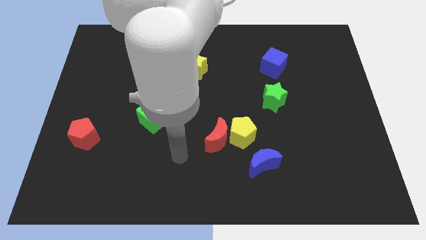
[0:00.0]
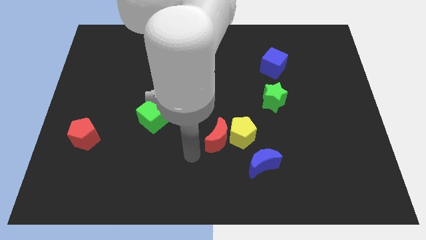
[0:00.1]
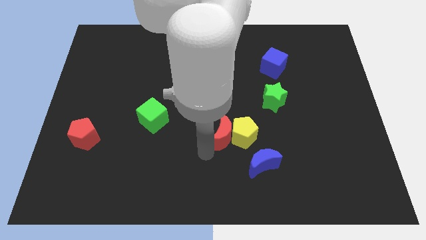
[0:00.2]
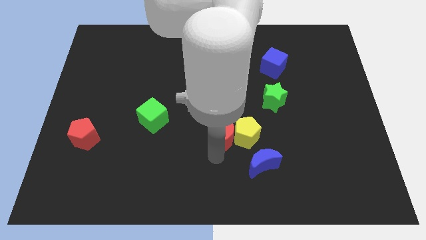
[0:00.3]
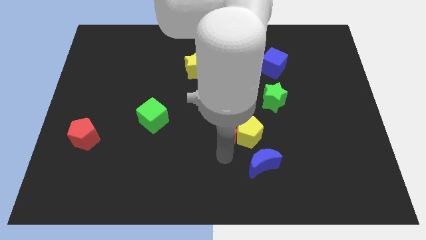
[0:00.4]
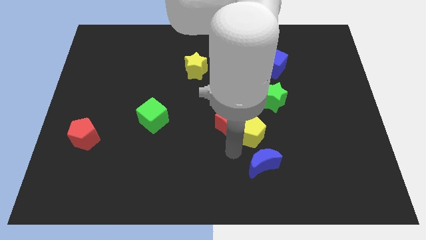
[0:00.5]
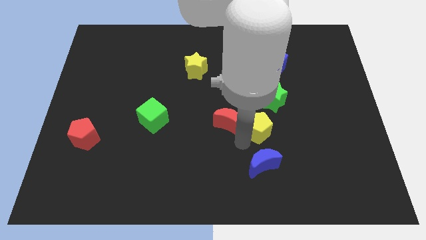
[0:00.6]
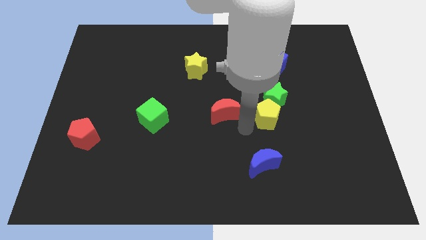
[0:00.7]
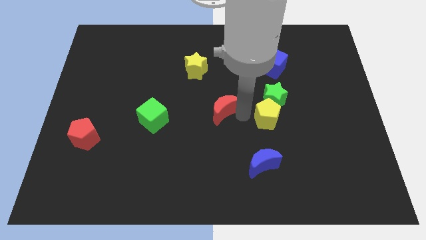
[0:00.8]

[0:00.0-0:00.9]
separate the red moon from the yellow pentagon

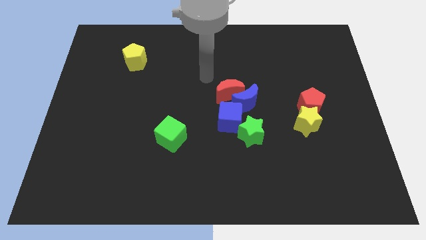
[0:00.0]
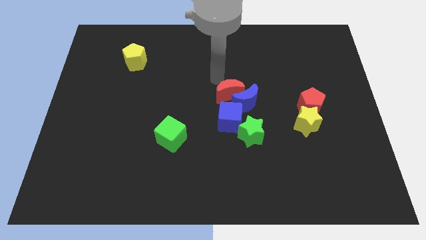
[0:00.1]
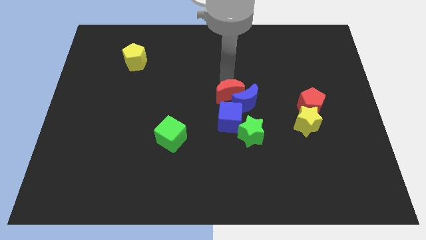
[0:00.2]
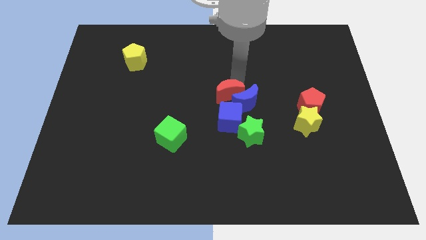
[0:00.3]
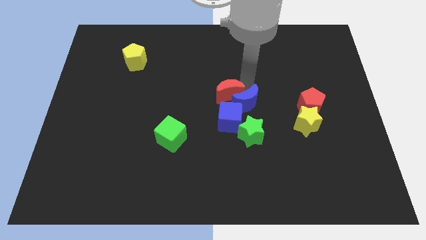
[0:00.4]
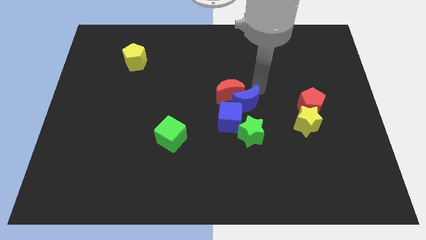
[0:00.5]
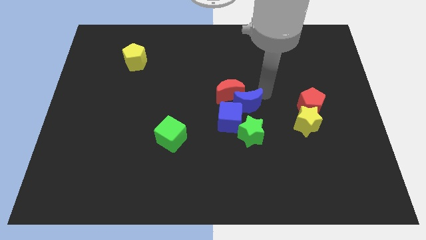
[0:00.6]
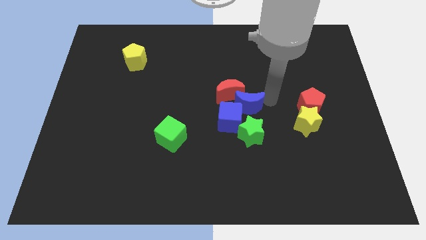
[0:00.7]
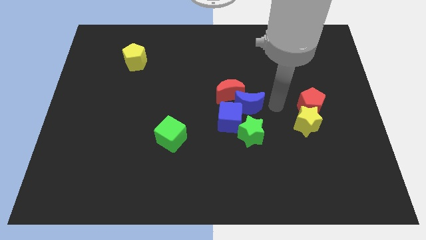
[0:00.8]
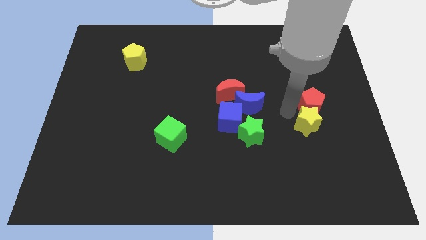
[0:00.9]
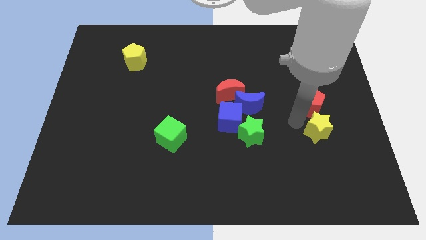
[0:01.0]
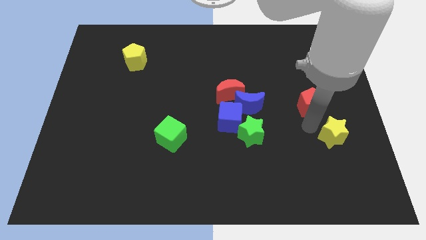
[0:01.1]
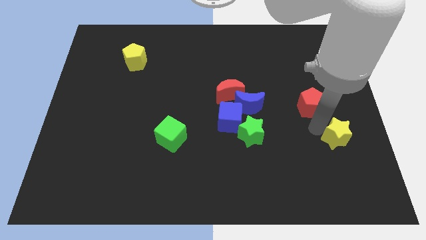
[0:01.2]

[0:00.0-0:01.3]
separate the red pentagon from the yellow star

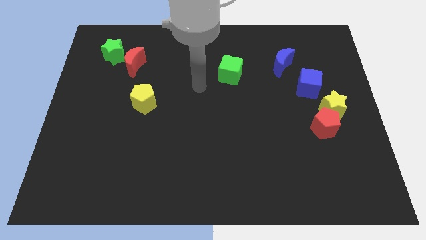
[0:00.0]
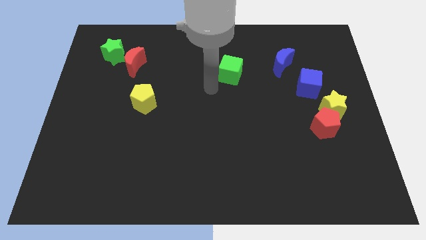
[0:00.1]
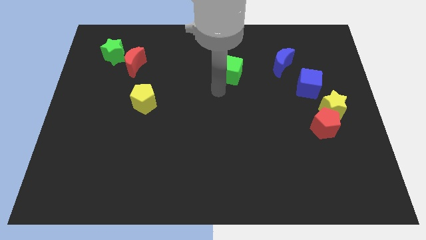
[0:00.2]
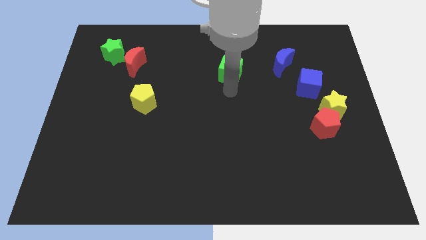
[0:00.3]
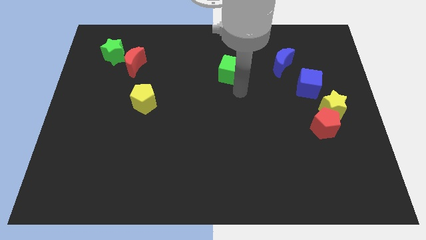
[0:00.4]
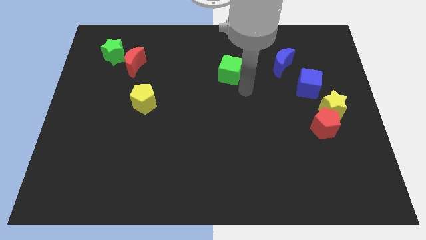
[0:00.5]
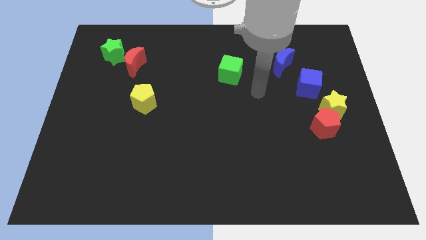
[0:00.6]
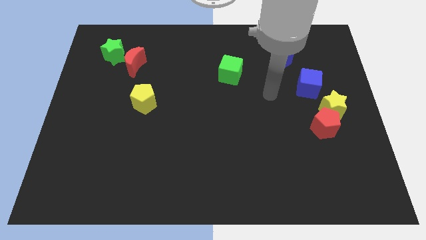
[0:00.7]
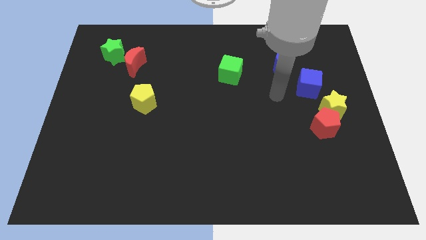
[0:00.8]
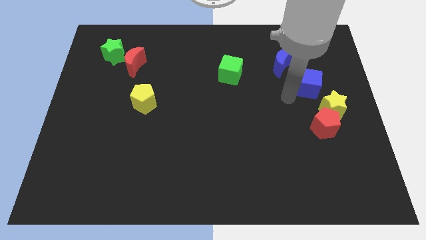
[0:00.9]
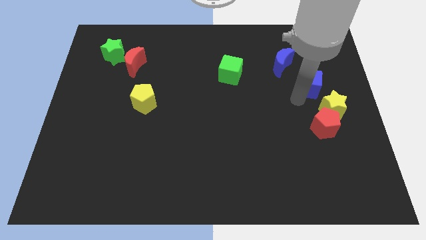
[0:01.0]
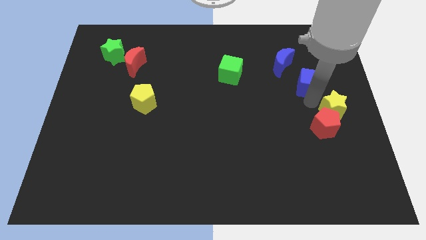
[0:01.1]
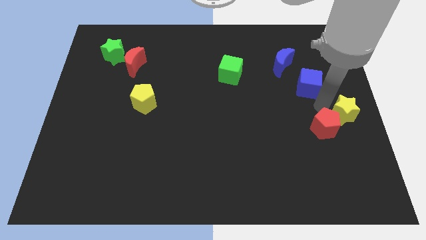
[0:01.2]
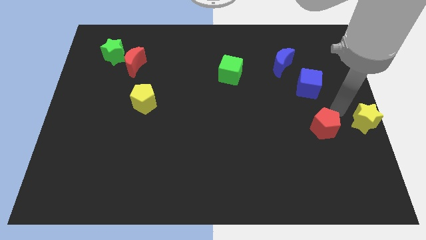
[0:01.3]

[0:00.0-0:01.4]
pull the red pentagon apart from the yellow star

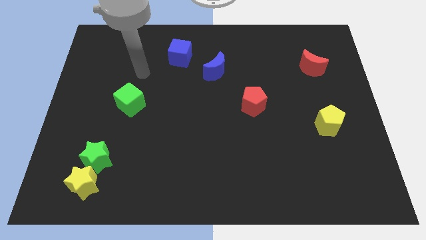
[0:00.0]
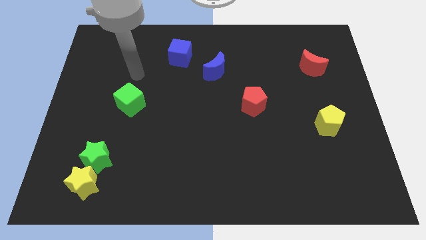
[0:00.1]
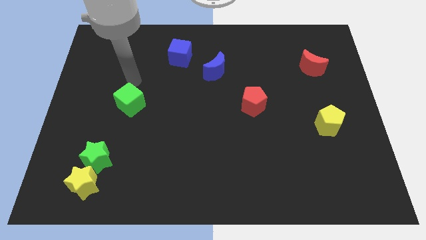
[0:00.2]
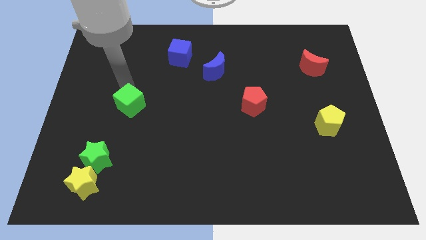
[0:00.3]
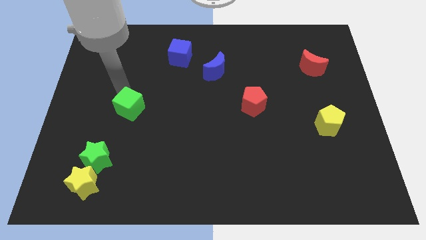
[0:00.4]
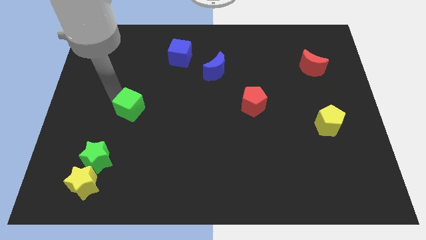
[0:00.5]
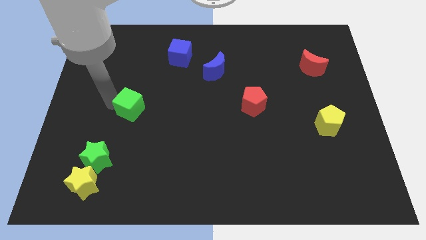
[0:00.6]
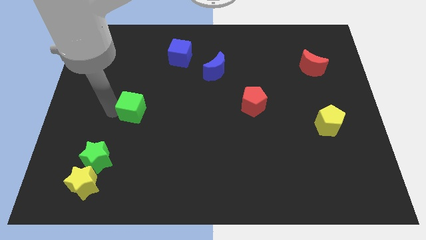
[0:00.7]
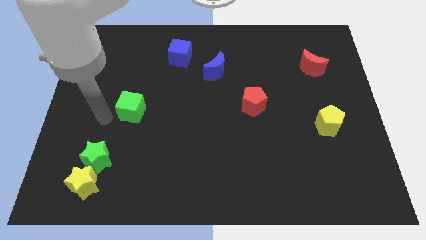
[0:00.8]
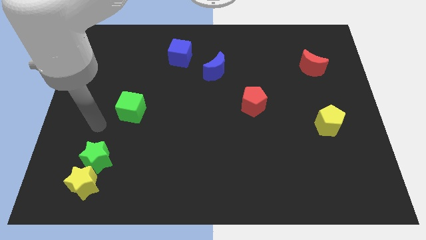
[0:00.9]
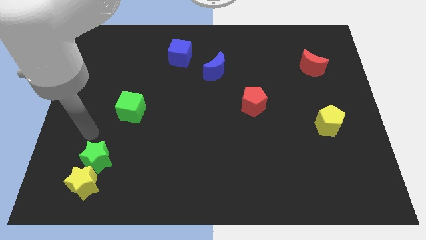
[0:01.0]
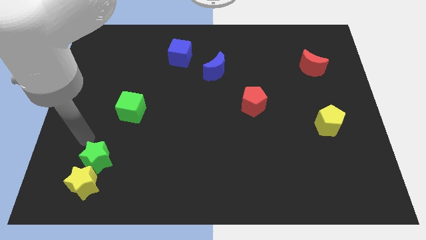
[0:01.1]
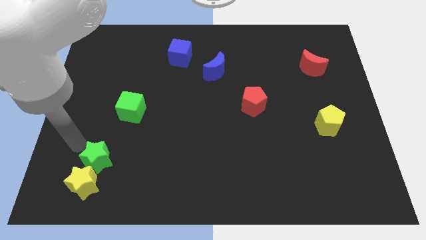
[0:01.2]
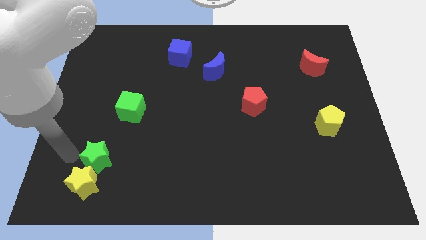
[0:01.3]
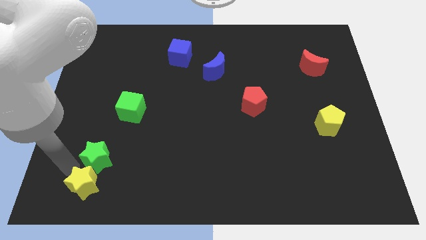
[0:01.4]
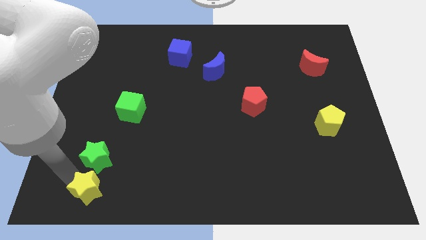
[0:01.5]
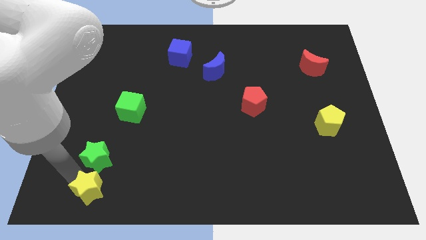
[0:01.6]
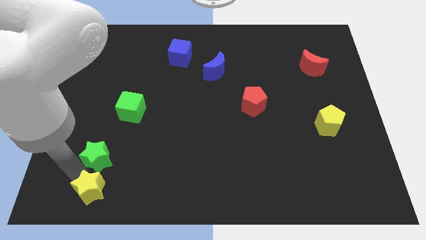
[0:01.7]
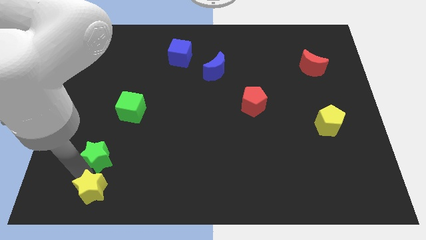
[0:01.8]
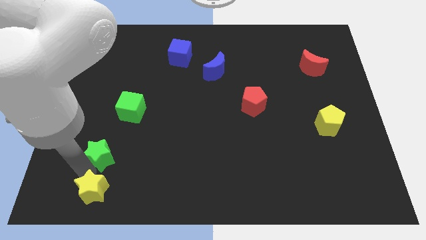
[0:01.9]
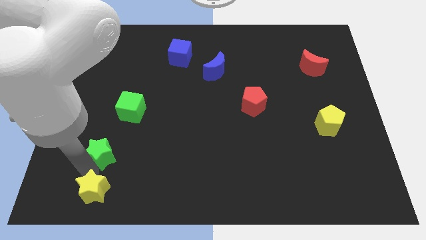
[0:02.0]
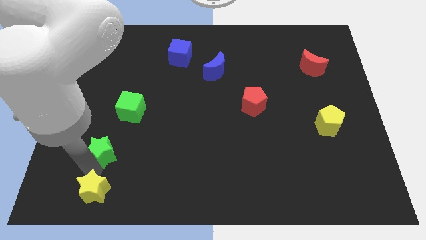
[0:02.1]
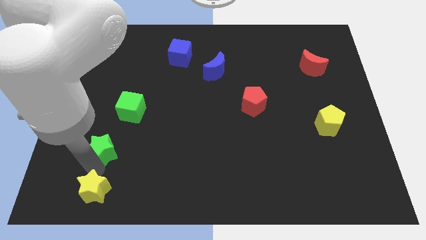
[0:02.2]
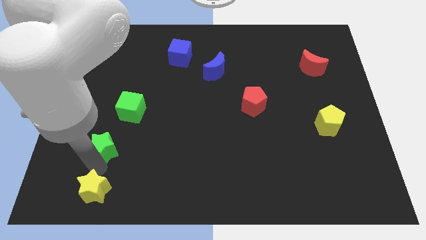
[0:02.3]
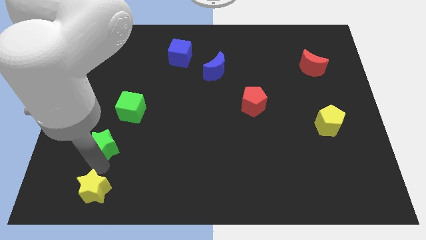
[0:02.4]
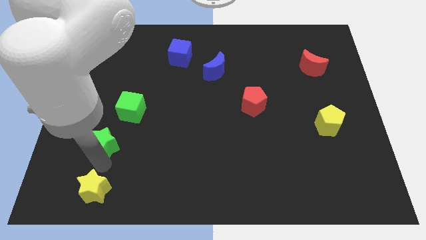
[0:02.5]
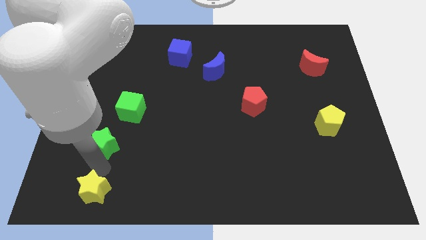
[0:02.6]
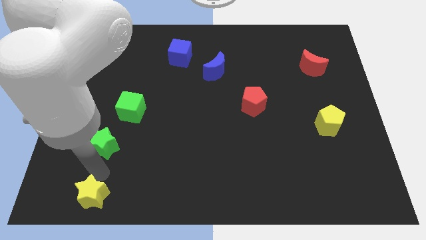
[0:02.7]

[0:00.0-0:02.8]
separate the green star from the yellow star

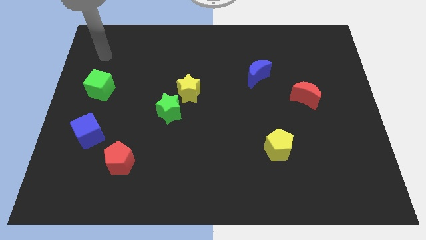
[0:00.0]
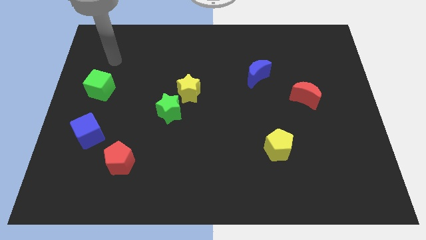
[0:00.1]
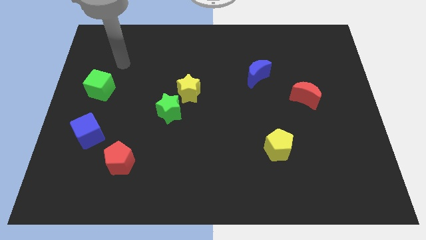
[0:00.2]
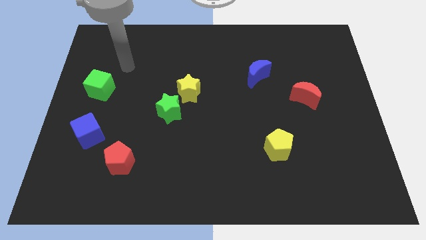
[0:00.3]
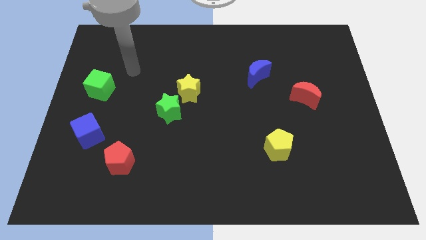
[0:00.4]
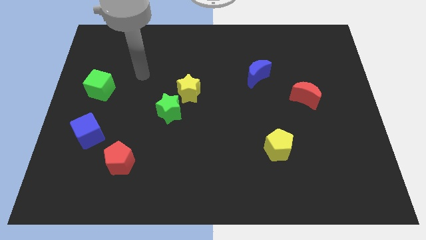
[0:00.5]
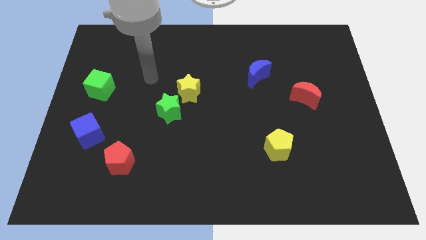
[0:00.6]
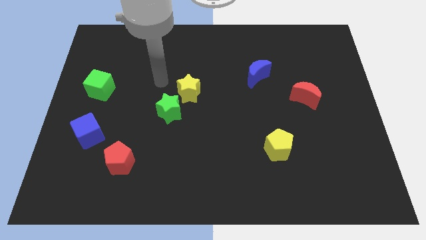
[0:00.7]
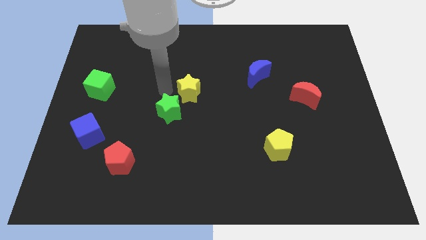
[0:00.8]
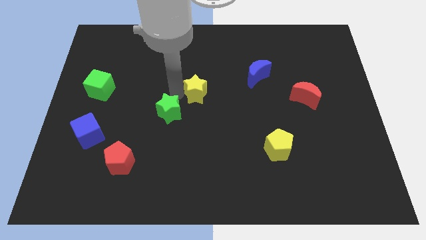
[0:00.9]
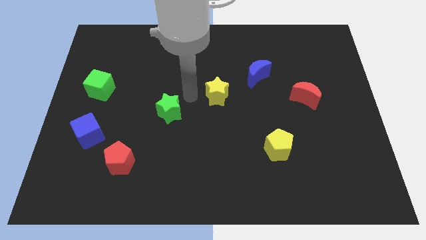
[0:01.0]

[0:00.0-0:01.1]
pull the green star apart from the yellow star

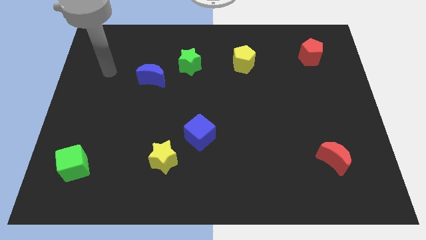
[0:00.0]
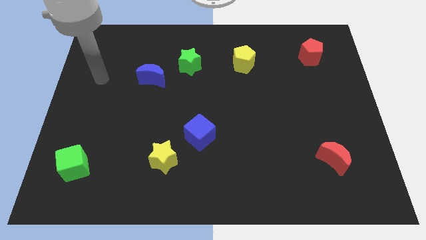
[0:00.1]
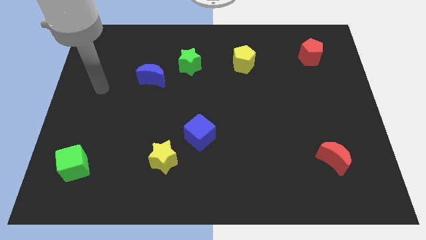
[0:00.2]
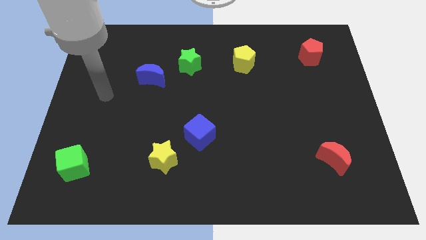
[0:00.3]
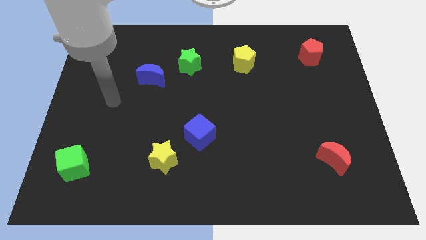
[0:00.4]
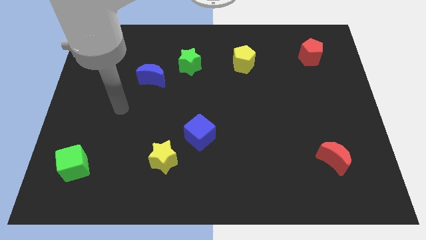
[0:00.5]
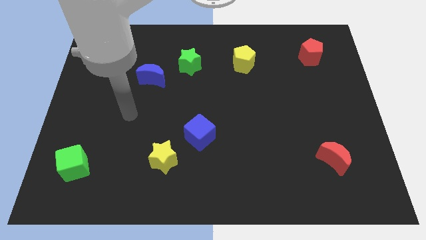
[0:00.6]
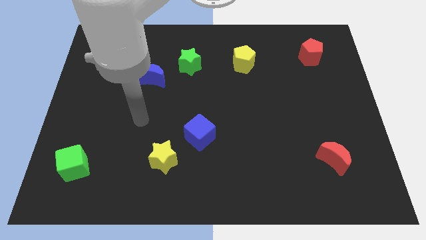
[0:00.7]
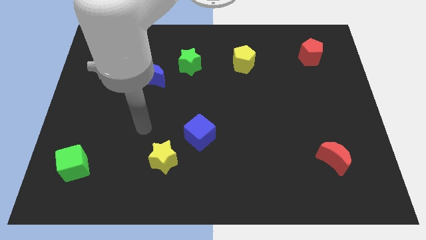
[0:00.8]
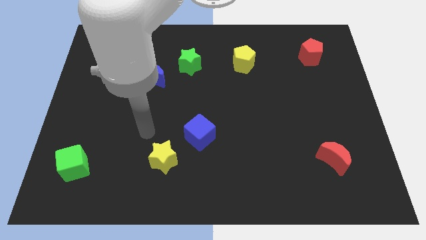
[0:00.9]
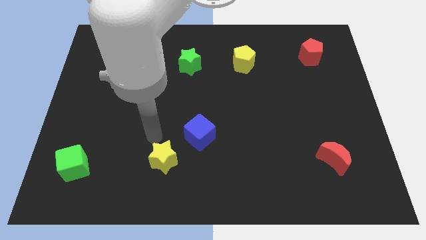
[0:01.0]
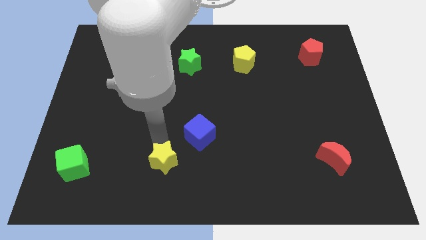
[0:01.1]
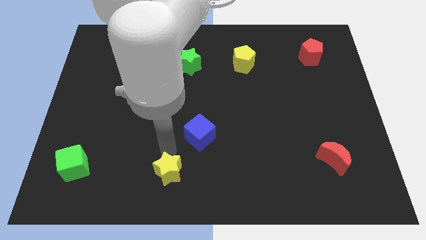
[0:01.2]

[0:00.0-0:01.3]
separate the blue cube from the yellow star

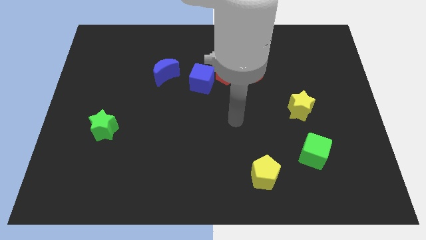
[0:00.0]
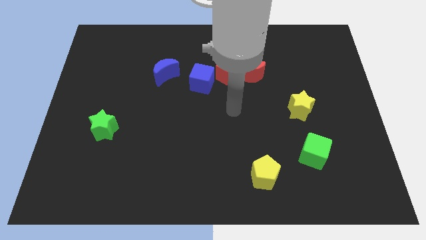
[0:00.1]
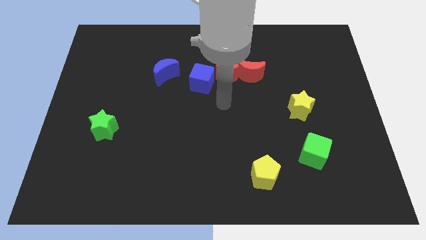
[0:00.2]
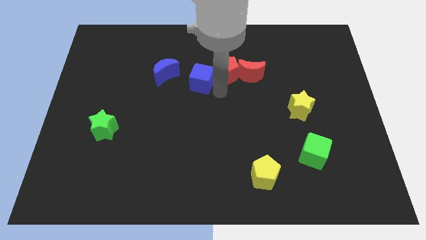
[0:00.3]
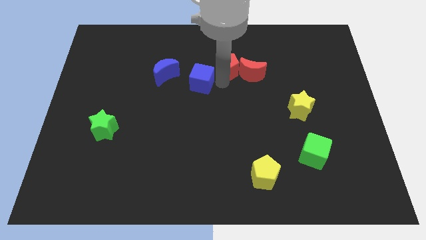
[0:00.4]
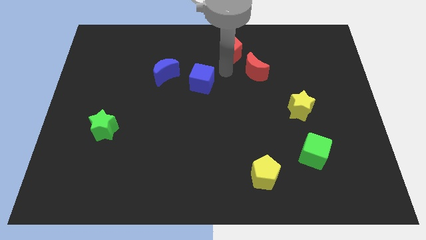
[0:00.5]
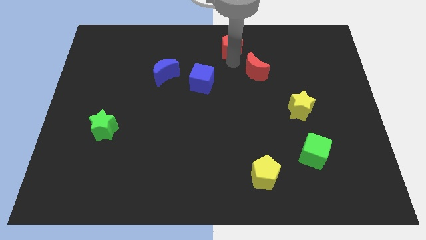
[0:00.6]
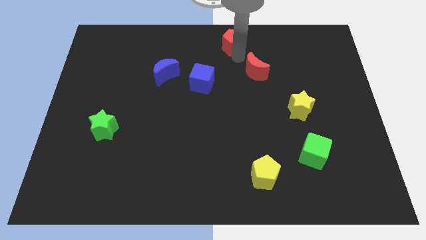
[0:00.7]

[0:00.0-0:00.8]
separate the red moon from the red pentagon
